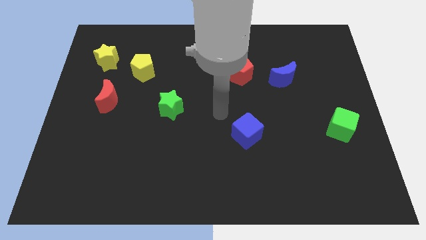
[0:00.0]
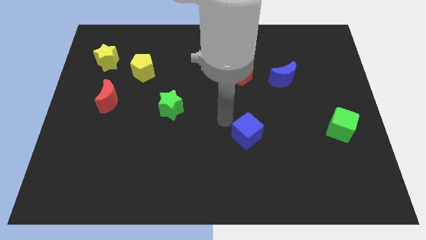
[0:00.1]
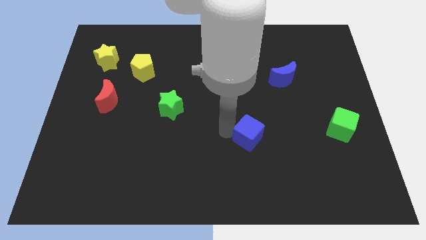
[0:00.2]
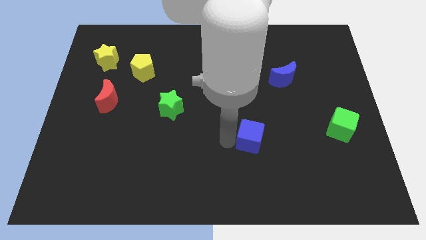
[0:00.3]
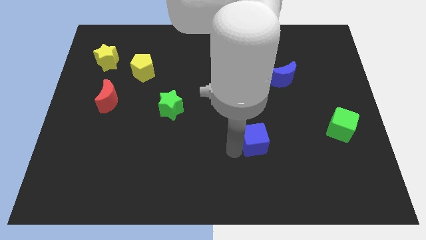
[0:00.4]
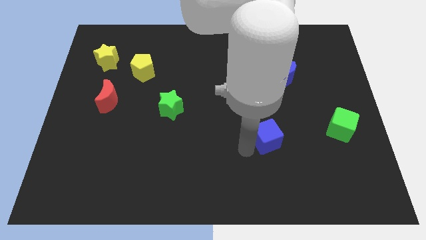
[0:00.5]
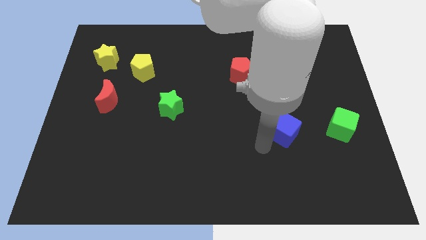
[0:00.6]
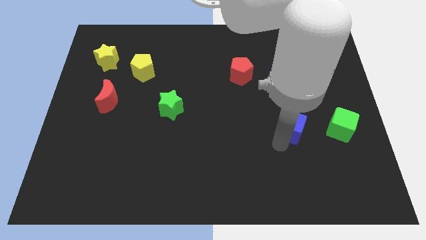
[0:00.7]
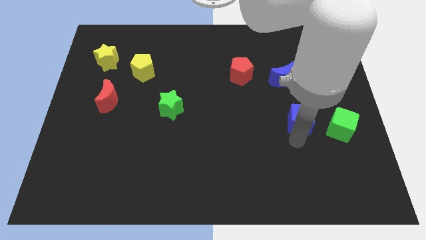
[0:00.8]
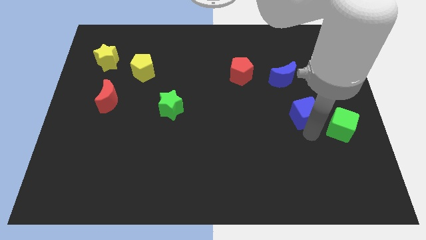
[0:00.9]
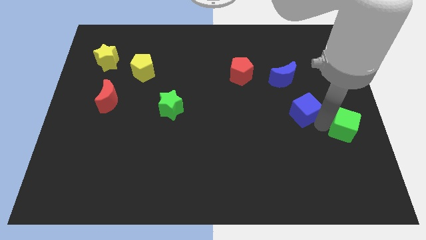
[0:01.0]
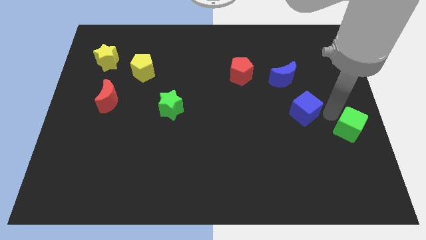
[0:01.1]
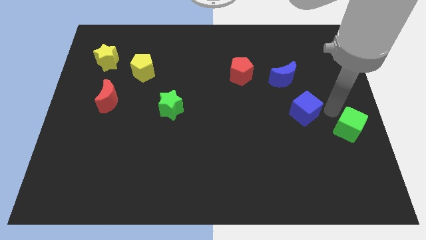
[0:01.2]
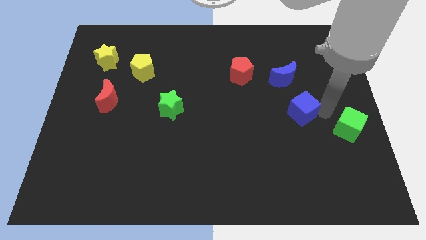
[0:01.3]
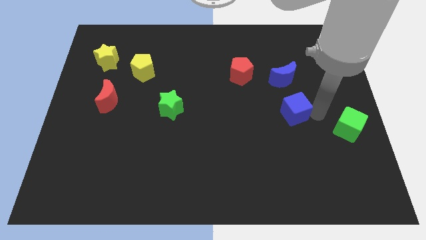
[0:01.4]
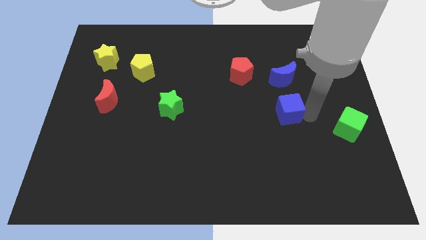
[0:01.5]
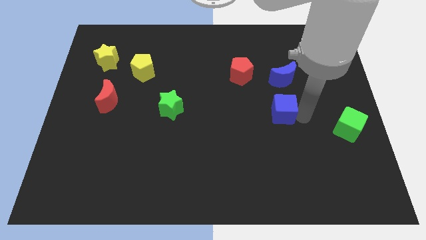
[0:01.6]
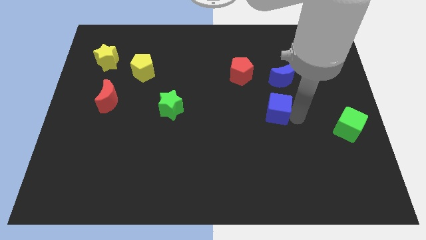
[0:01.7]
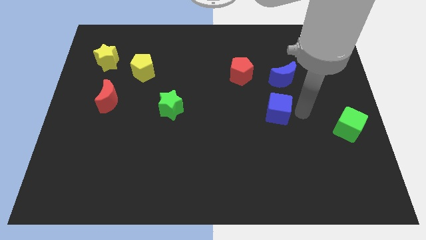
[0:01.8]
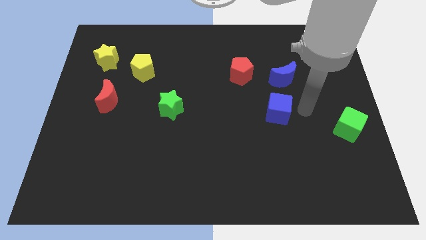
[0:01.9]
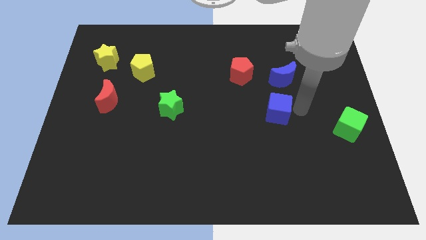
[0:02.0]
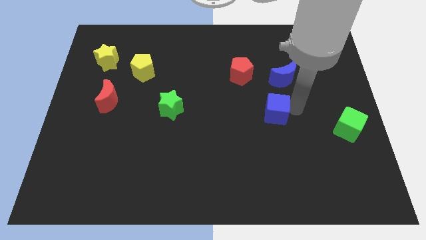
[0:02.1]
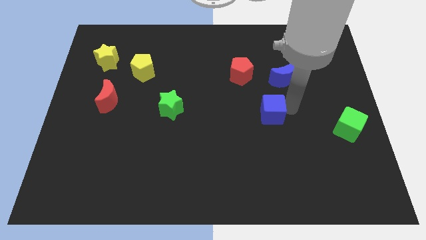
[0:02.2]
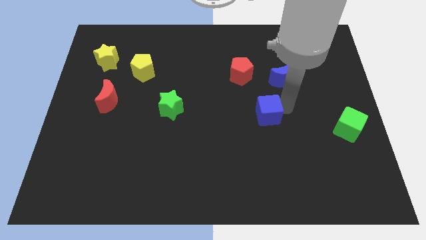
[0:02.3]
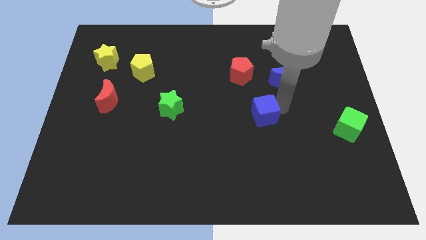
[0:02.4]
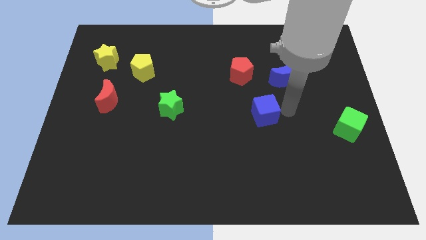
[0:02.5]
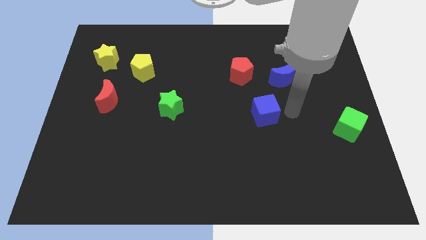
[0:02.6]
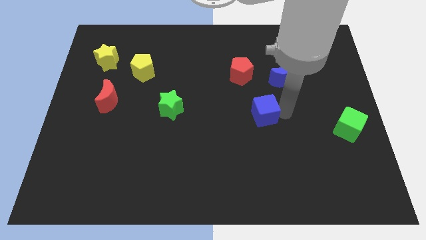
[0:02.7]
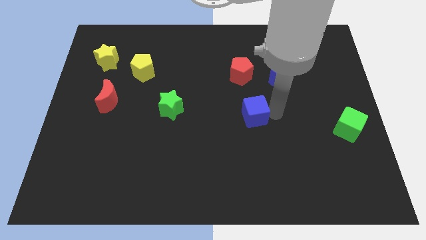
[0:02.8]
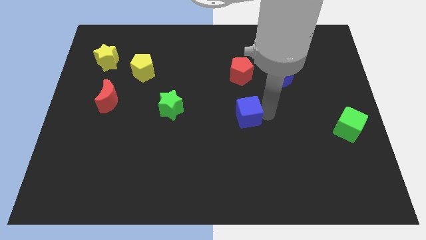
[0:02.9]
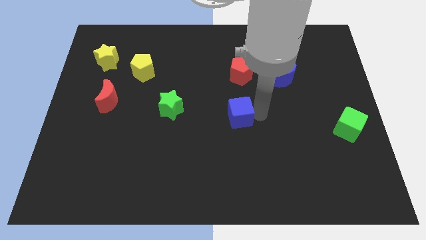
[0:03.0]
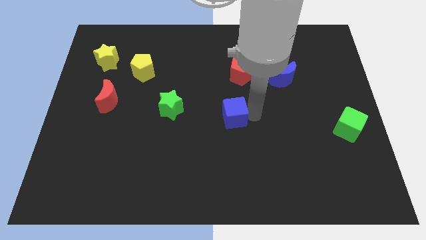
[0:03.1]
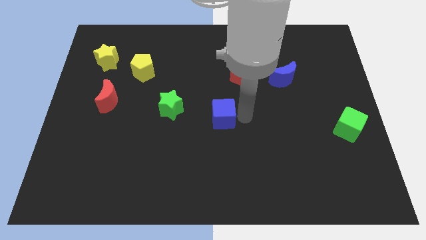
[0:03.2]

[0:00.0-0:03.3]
push the blue cube a little up and to the left

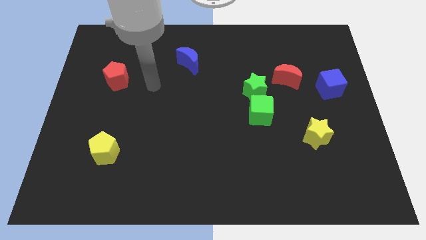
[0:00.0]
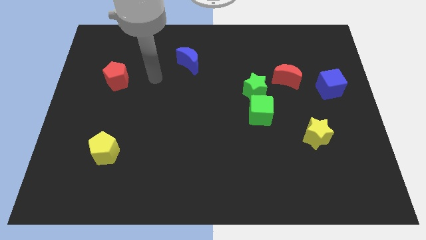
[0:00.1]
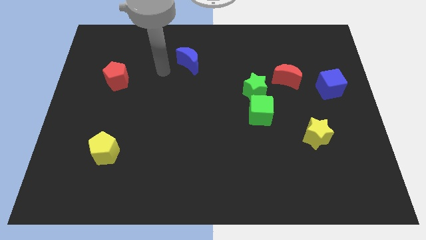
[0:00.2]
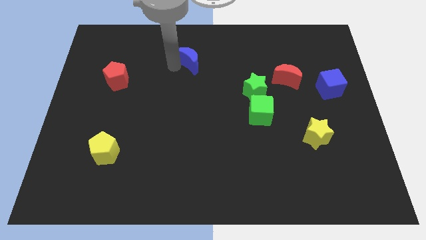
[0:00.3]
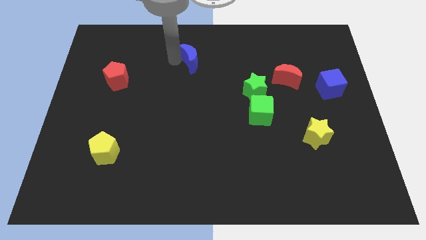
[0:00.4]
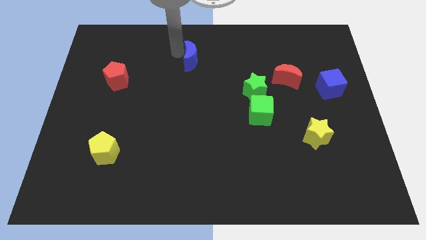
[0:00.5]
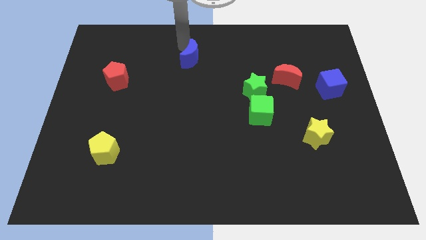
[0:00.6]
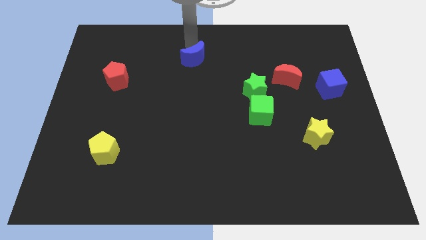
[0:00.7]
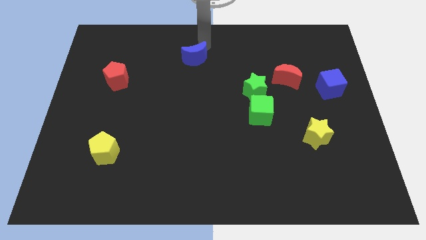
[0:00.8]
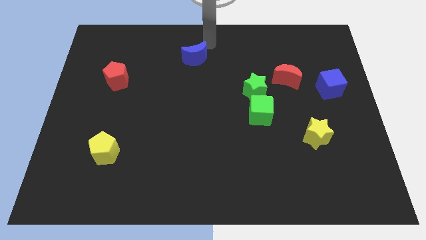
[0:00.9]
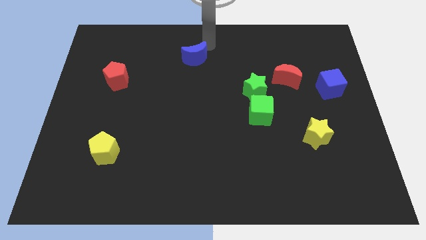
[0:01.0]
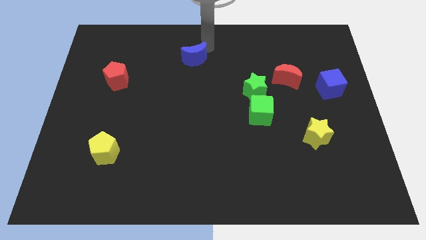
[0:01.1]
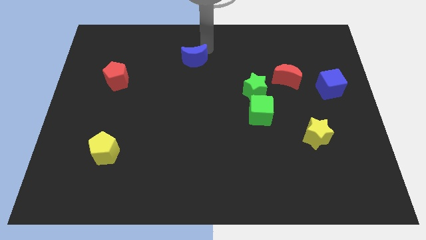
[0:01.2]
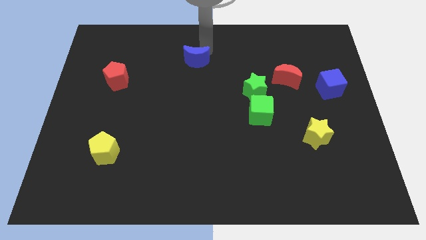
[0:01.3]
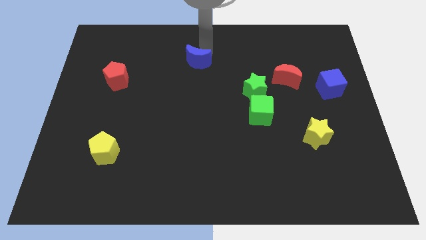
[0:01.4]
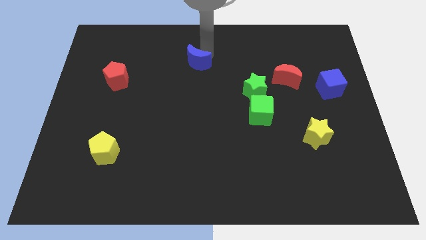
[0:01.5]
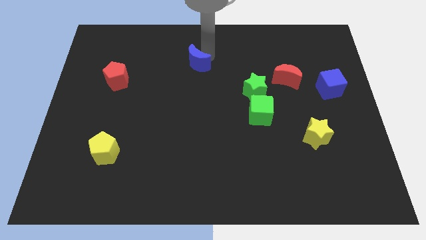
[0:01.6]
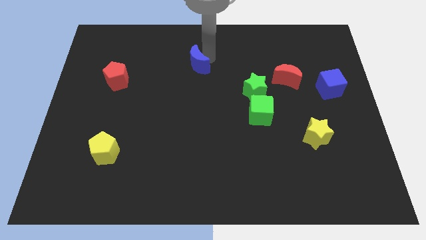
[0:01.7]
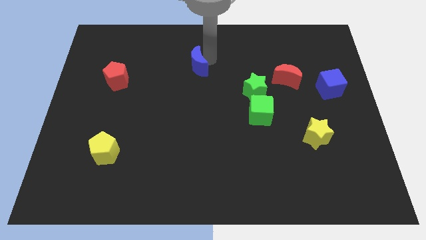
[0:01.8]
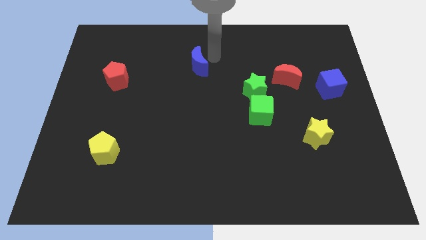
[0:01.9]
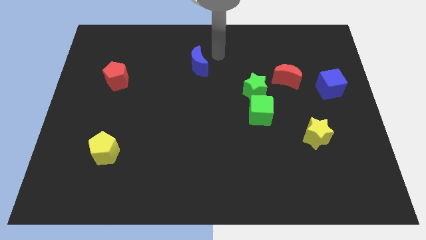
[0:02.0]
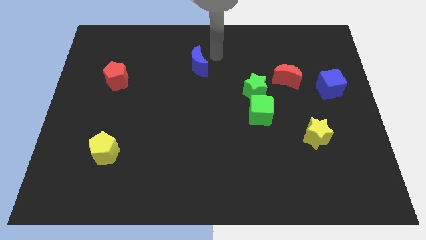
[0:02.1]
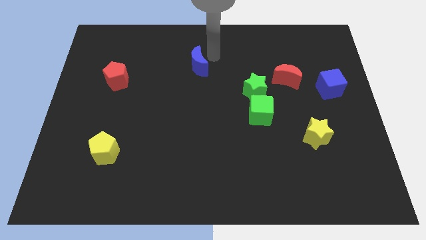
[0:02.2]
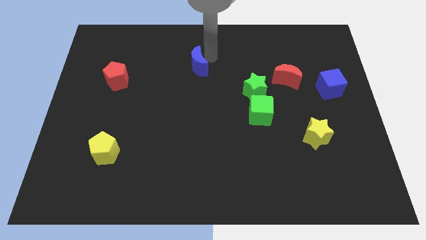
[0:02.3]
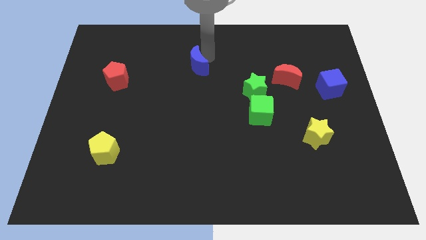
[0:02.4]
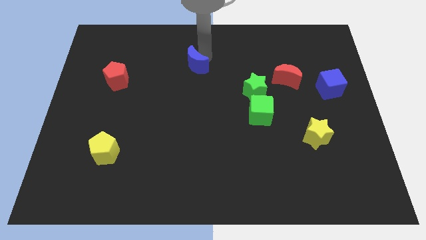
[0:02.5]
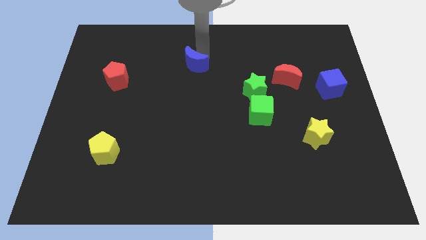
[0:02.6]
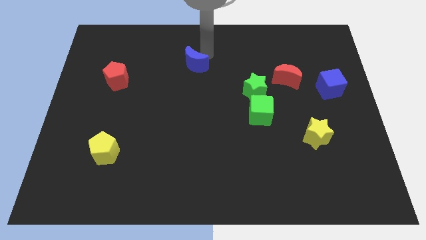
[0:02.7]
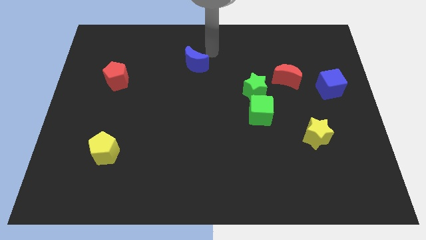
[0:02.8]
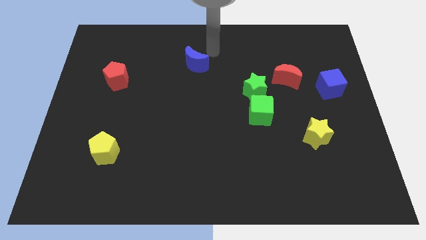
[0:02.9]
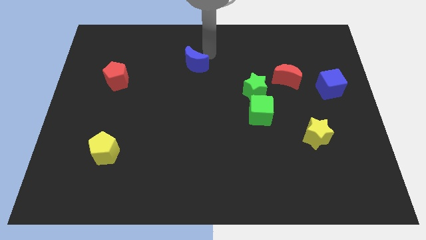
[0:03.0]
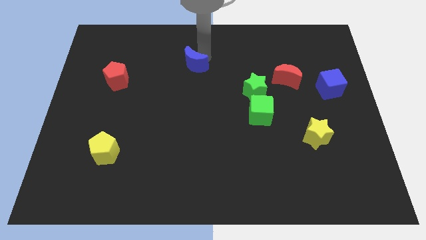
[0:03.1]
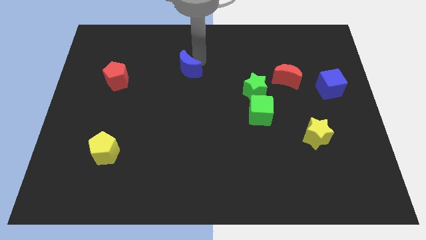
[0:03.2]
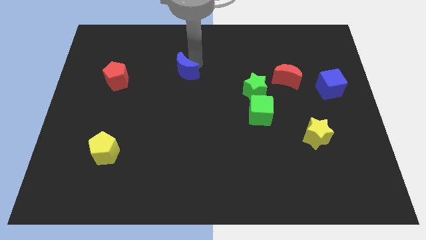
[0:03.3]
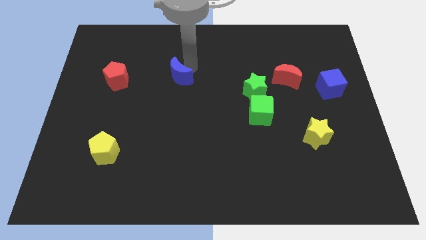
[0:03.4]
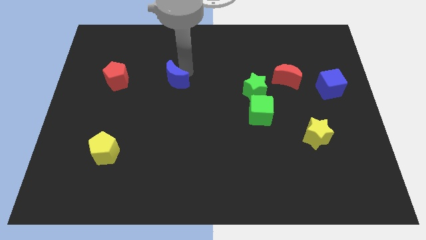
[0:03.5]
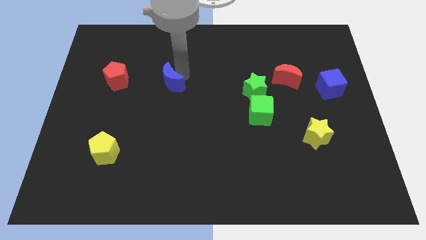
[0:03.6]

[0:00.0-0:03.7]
slide the blue moon down and left a little bit

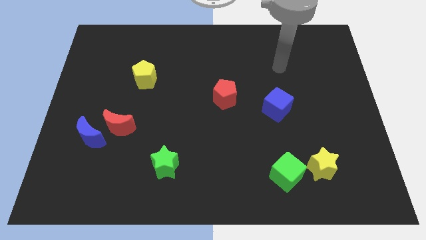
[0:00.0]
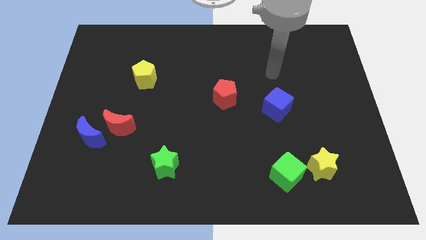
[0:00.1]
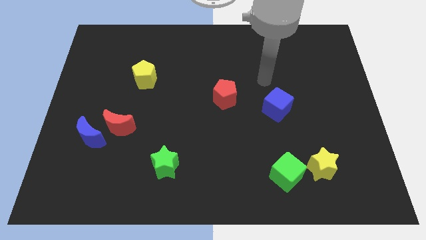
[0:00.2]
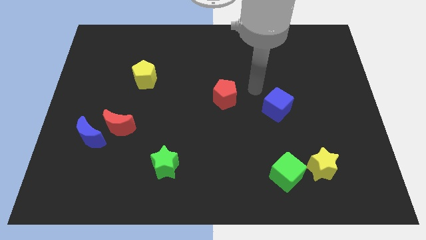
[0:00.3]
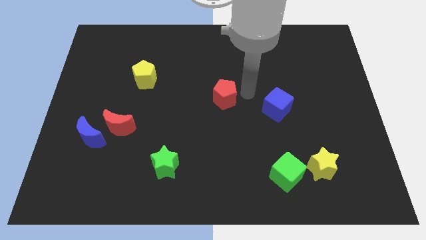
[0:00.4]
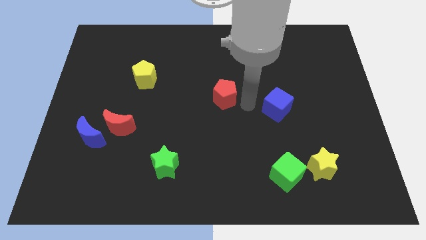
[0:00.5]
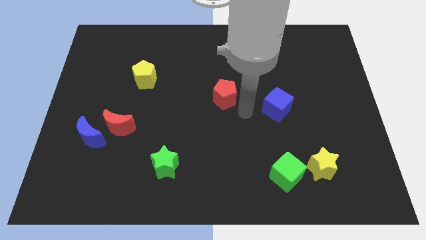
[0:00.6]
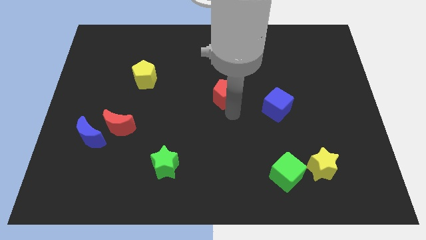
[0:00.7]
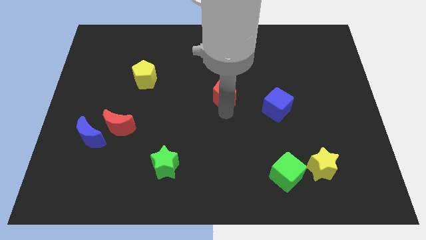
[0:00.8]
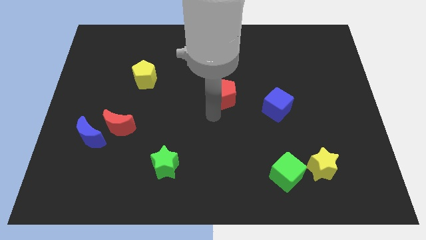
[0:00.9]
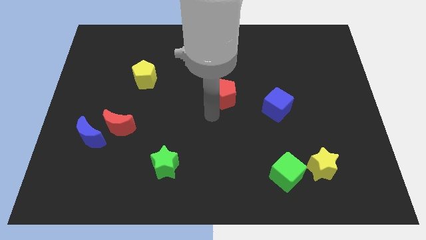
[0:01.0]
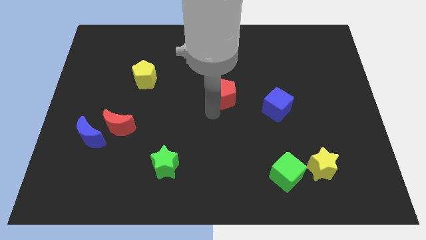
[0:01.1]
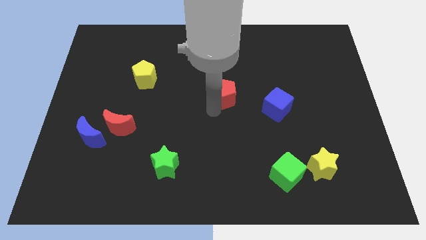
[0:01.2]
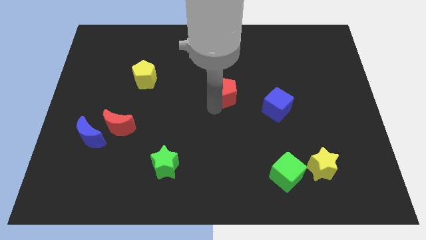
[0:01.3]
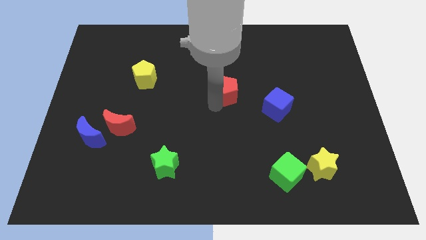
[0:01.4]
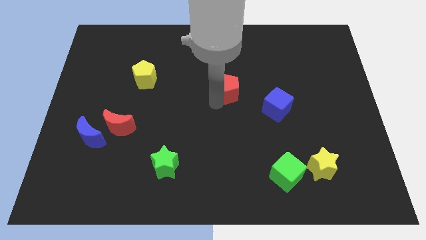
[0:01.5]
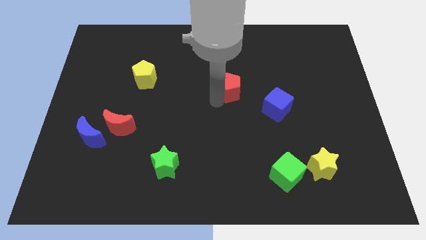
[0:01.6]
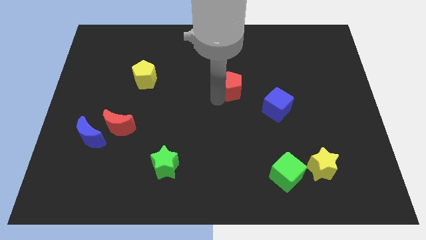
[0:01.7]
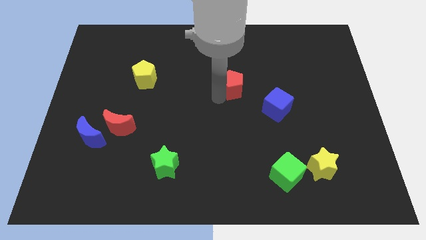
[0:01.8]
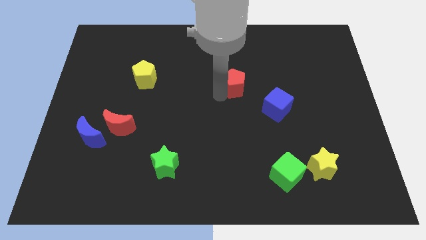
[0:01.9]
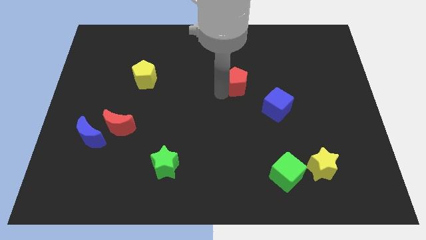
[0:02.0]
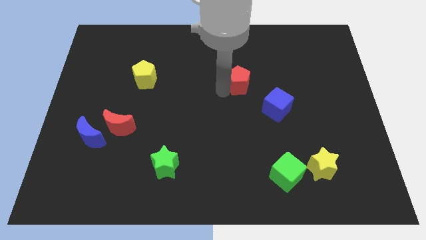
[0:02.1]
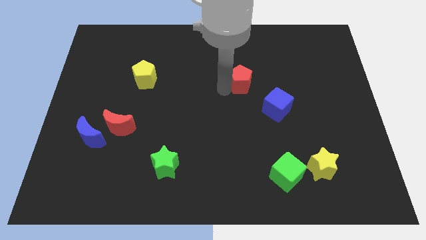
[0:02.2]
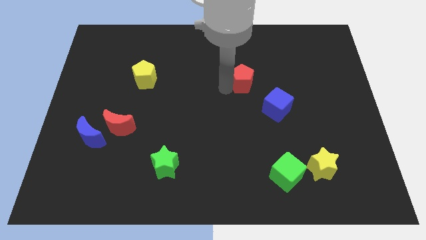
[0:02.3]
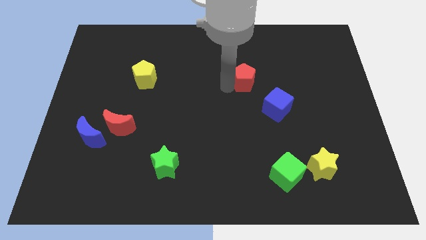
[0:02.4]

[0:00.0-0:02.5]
slightly move the red pentagon up and right
